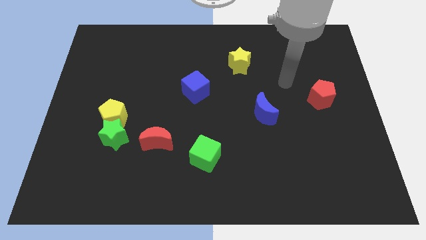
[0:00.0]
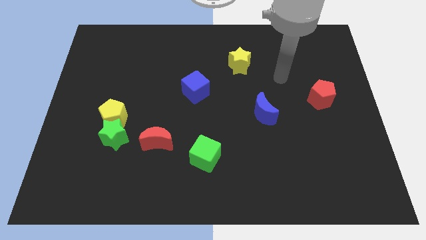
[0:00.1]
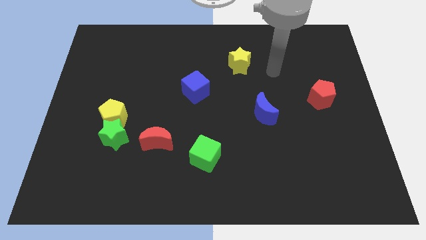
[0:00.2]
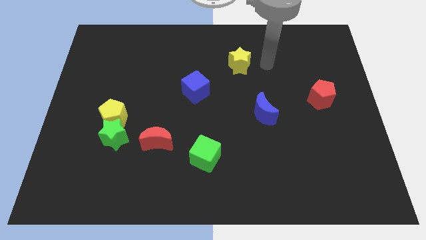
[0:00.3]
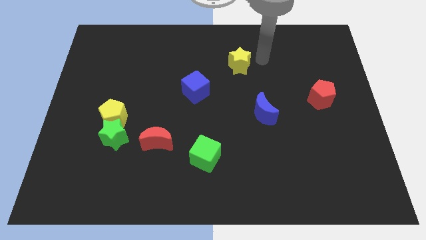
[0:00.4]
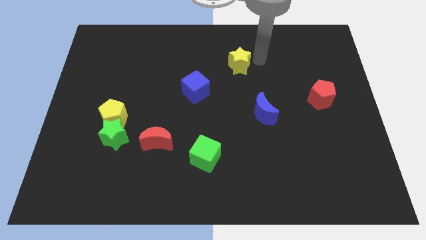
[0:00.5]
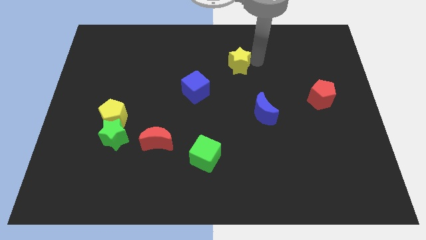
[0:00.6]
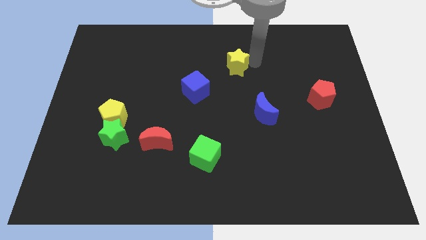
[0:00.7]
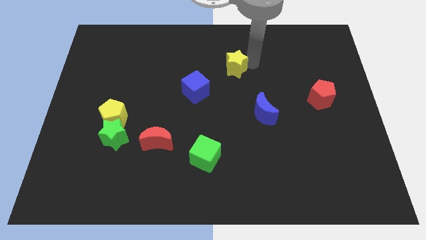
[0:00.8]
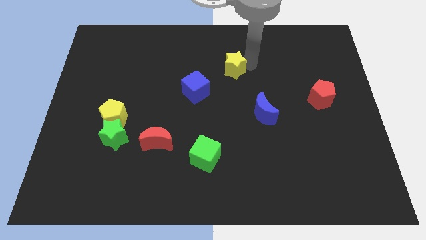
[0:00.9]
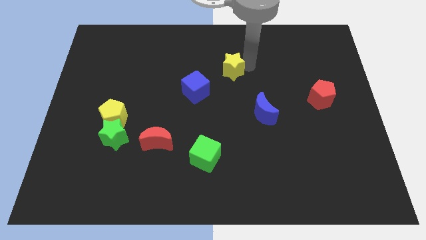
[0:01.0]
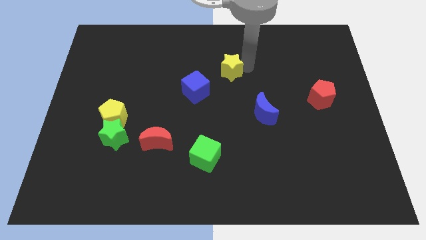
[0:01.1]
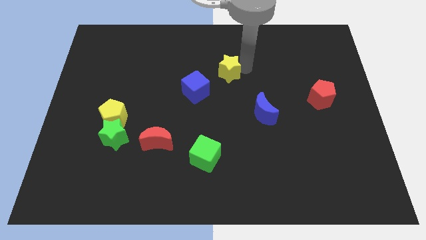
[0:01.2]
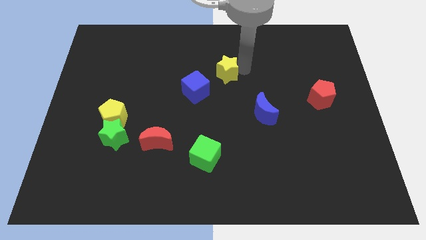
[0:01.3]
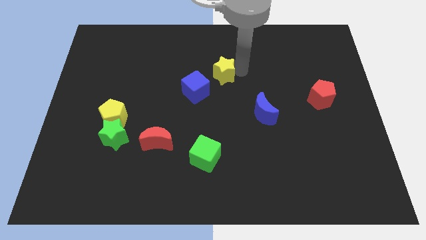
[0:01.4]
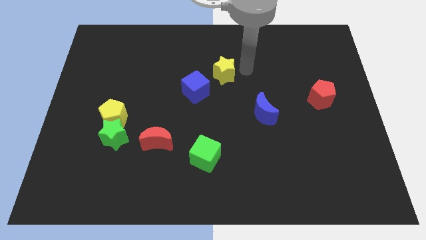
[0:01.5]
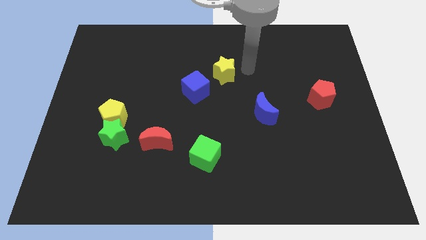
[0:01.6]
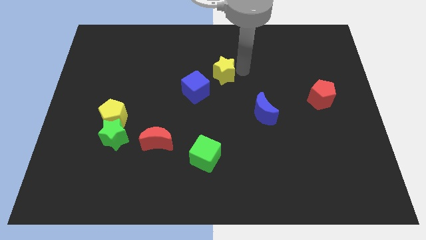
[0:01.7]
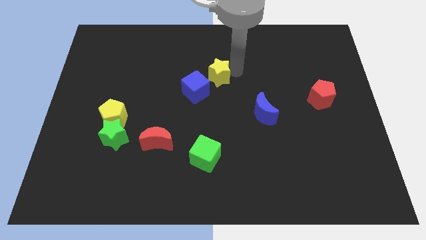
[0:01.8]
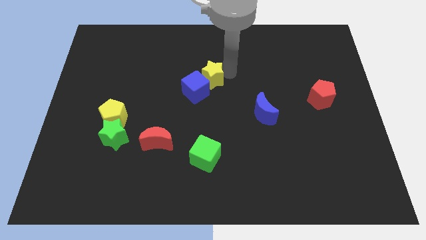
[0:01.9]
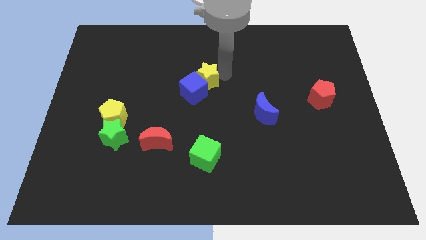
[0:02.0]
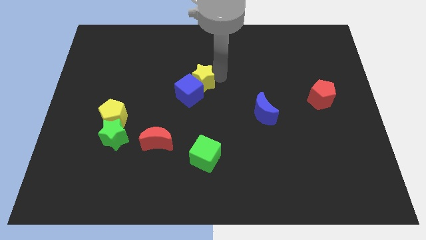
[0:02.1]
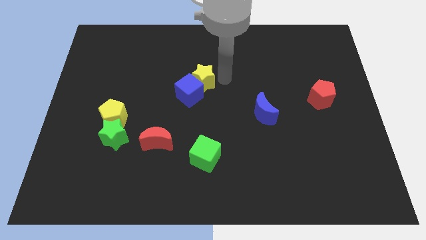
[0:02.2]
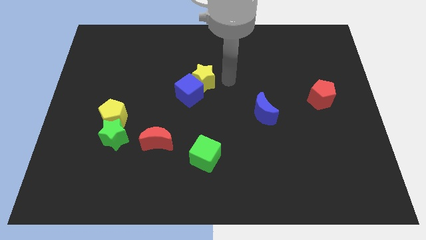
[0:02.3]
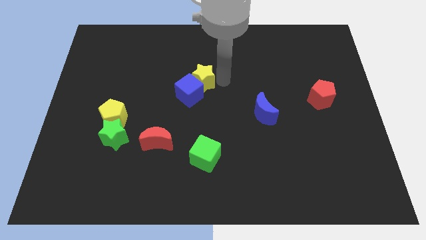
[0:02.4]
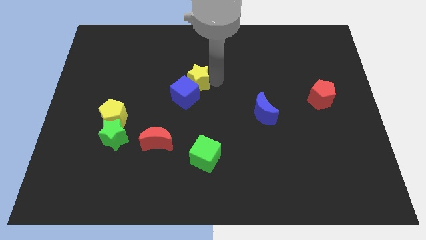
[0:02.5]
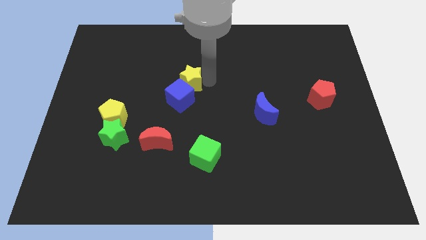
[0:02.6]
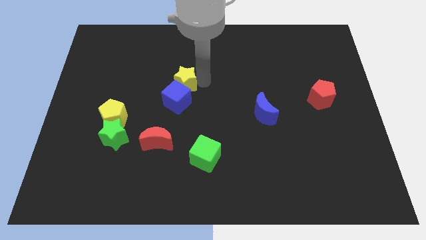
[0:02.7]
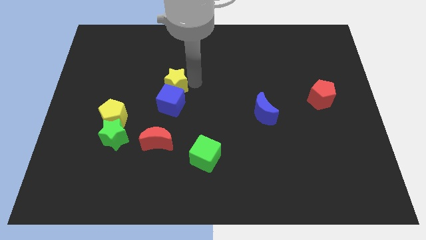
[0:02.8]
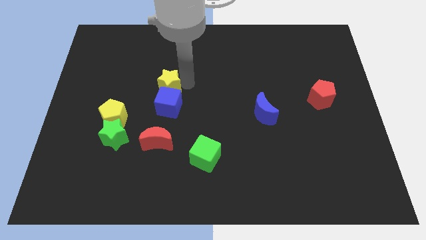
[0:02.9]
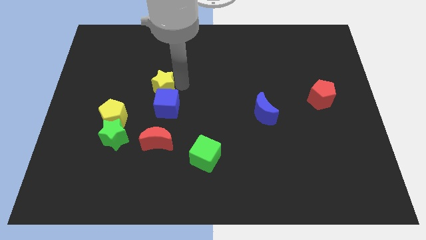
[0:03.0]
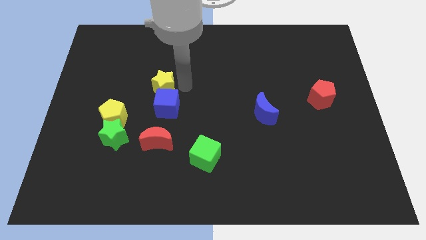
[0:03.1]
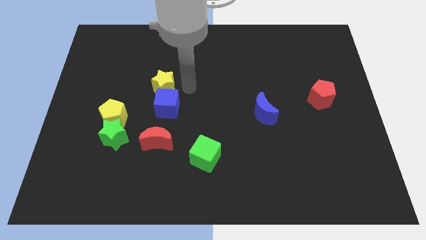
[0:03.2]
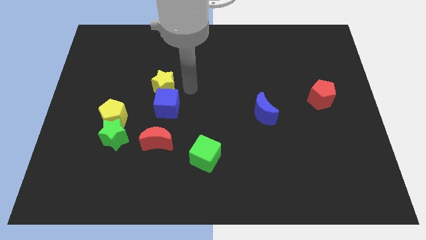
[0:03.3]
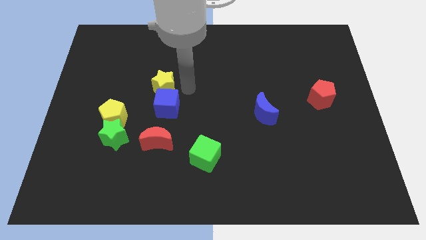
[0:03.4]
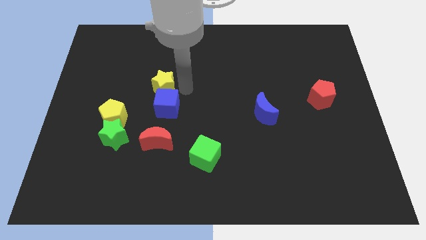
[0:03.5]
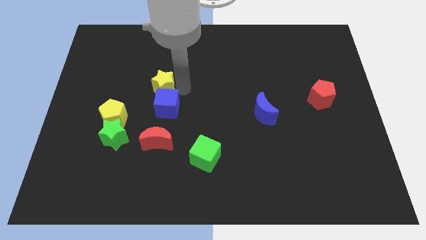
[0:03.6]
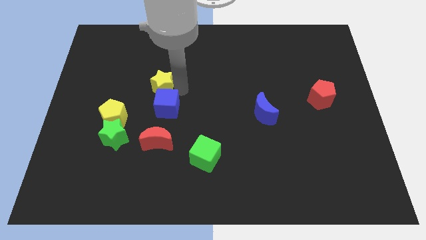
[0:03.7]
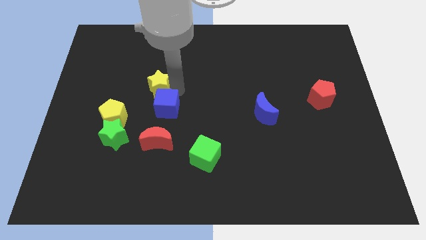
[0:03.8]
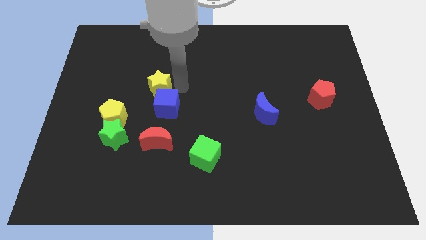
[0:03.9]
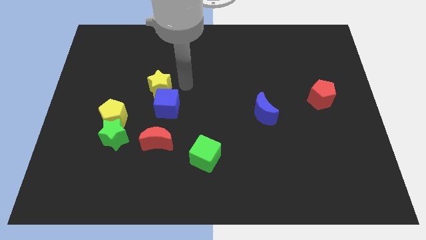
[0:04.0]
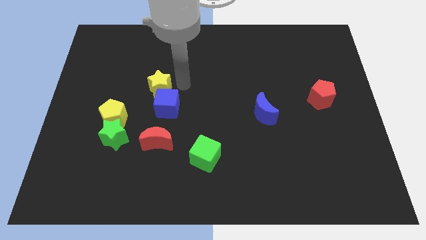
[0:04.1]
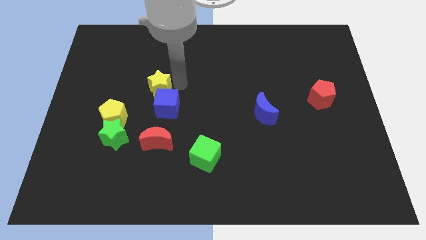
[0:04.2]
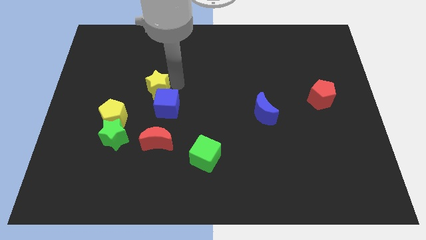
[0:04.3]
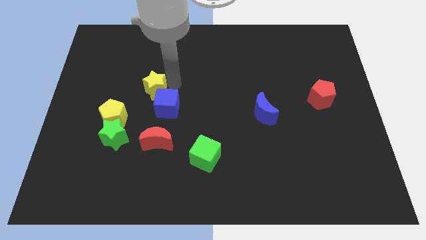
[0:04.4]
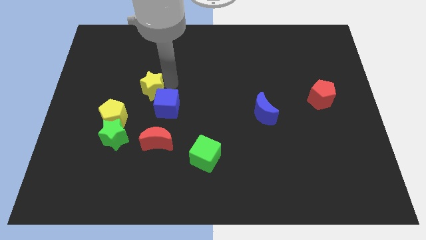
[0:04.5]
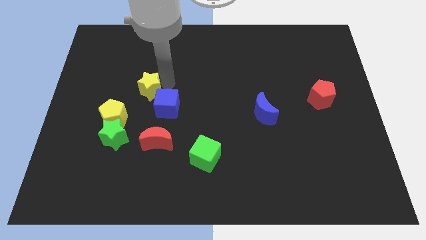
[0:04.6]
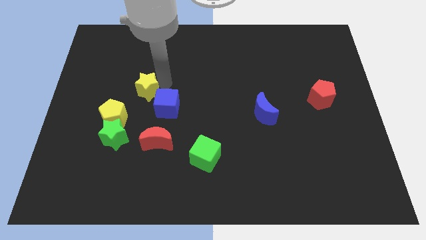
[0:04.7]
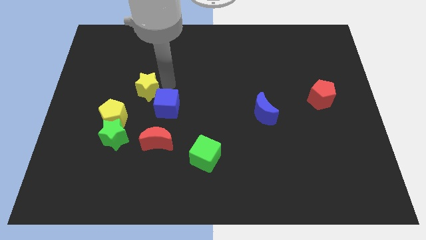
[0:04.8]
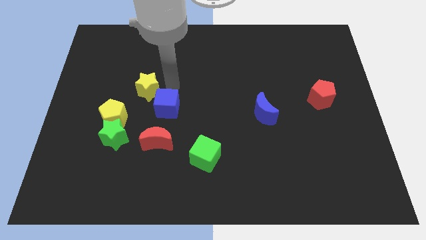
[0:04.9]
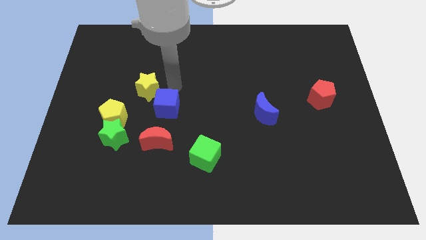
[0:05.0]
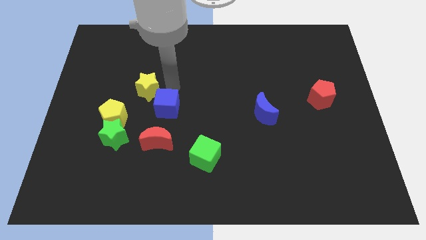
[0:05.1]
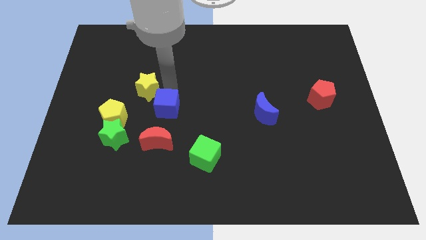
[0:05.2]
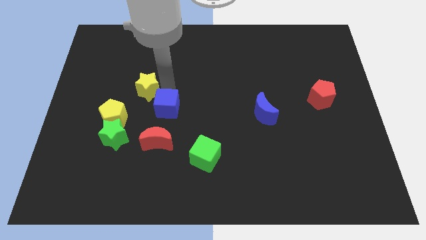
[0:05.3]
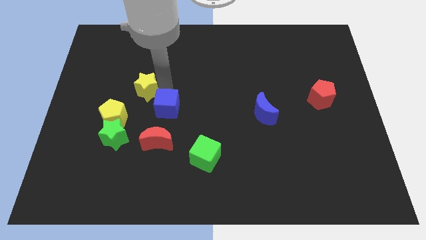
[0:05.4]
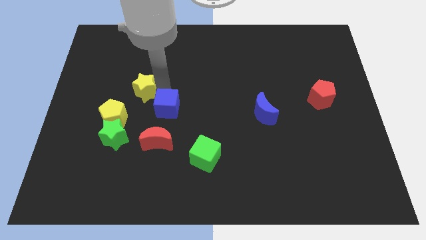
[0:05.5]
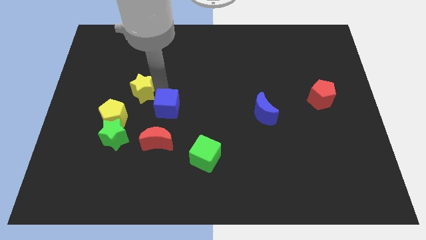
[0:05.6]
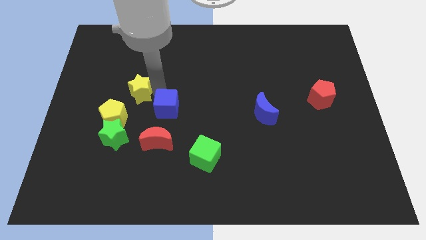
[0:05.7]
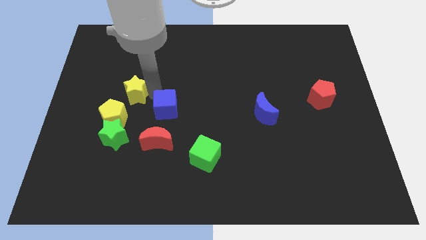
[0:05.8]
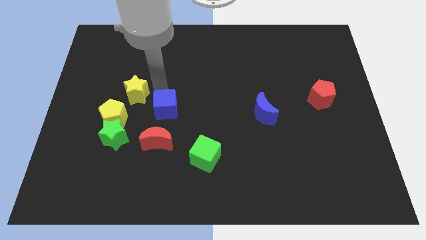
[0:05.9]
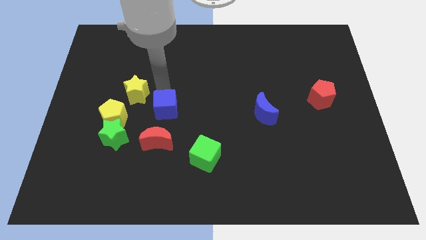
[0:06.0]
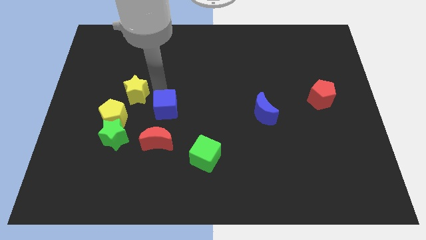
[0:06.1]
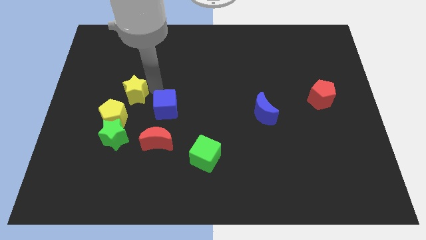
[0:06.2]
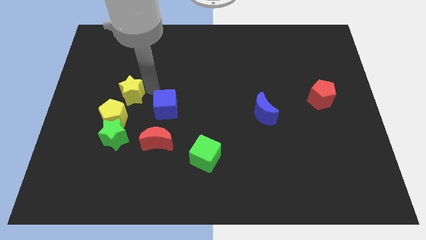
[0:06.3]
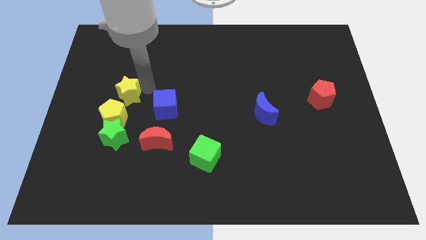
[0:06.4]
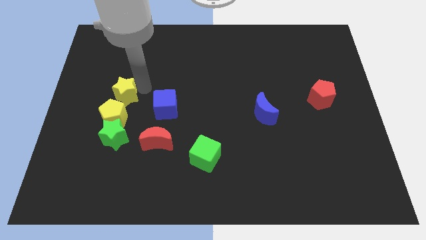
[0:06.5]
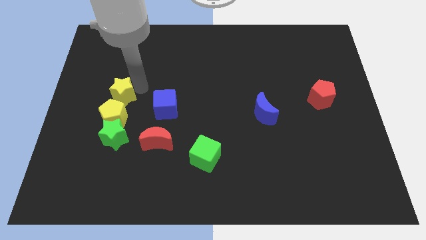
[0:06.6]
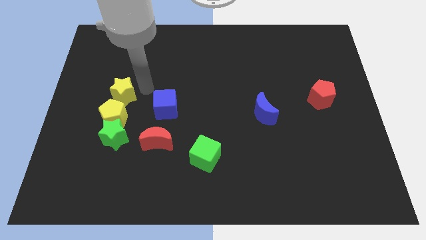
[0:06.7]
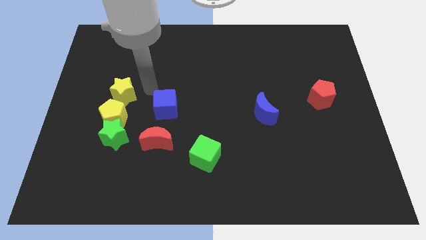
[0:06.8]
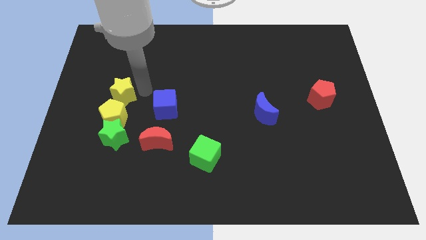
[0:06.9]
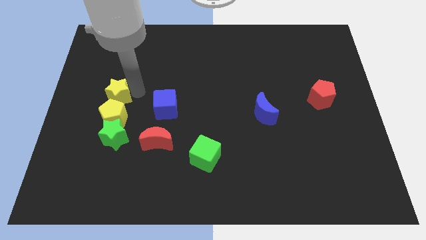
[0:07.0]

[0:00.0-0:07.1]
slide the yellow star diagonally up and to the left of the yellow pentagon

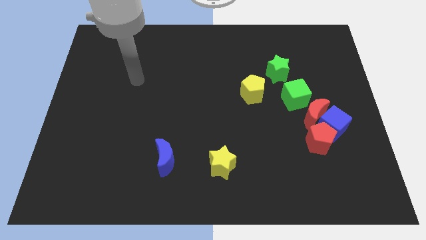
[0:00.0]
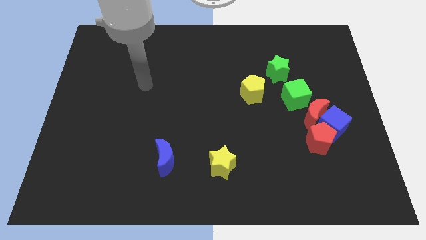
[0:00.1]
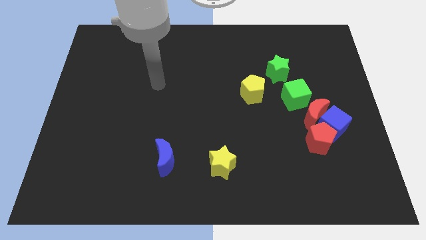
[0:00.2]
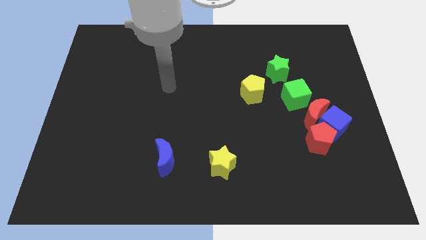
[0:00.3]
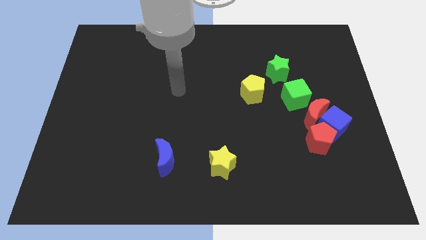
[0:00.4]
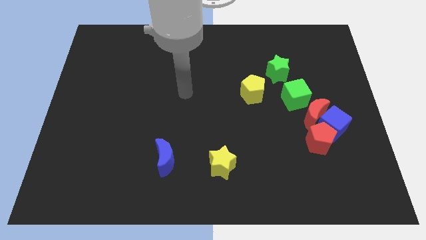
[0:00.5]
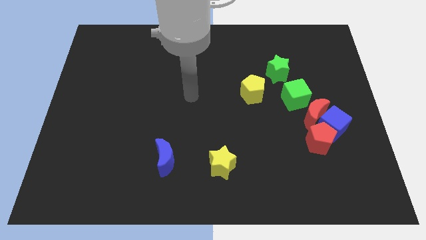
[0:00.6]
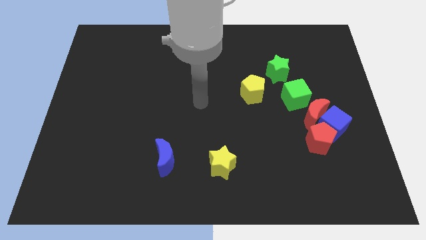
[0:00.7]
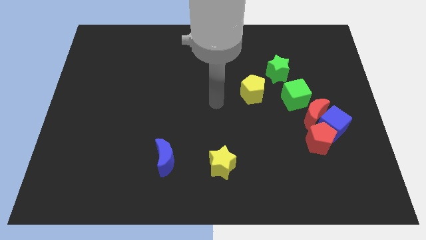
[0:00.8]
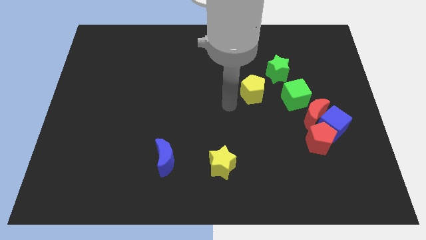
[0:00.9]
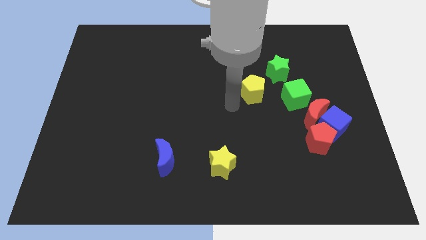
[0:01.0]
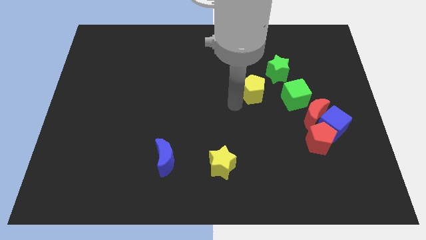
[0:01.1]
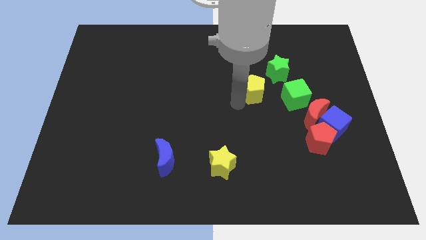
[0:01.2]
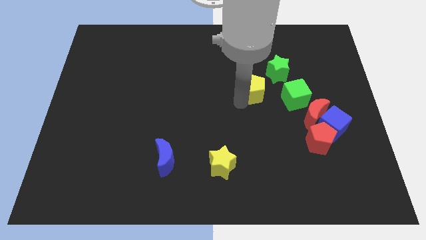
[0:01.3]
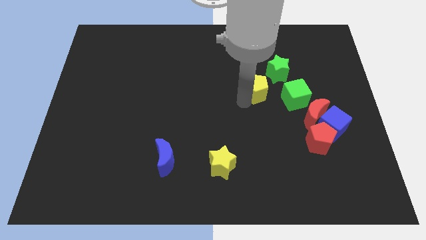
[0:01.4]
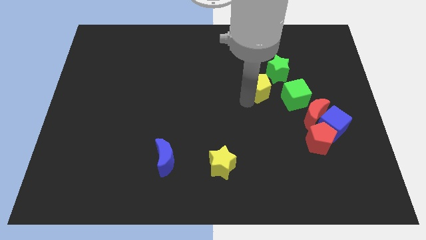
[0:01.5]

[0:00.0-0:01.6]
push the yellow pentagon diagonally up and to the left of the green cube
